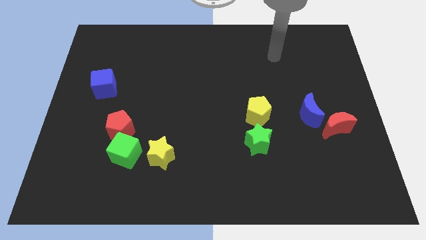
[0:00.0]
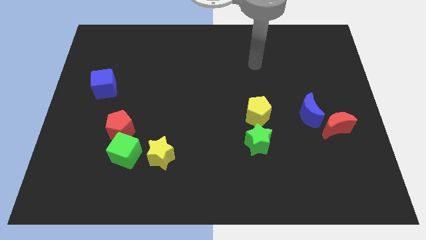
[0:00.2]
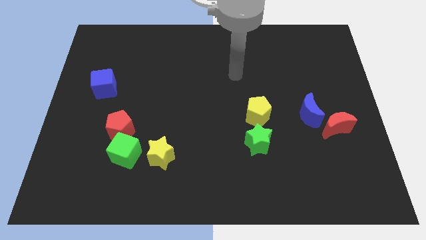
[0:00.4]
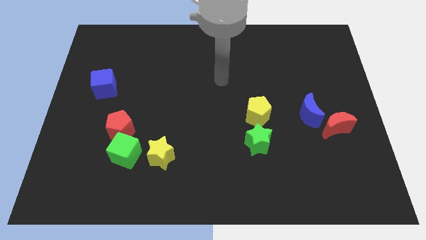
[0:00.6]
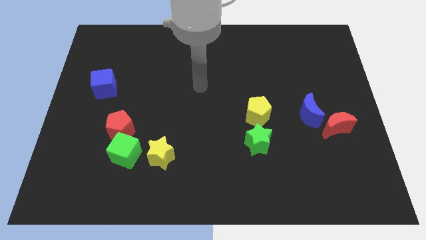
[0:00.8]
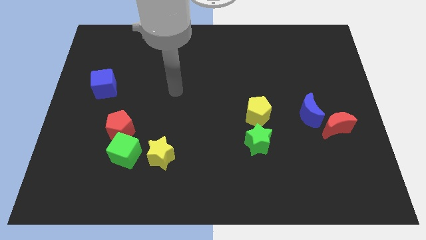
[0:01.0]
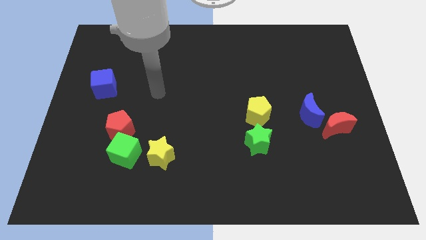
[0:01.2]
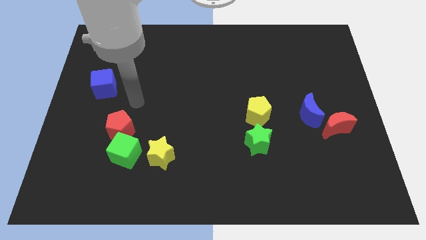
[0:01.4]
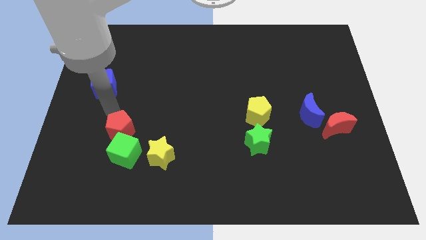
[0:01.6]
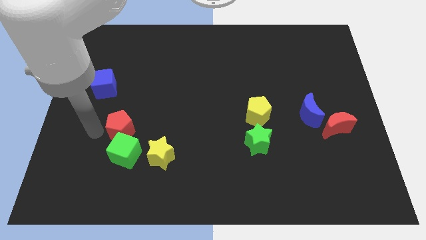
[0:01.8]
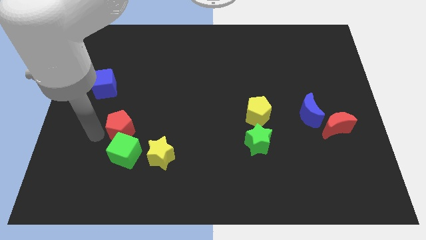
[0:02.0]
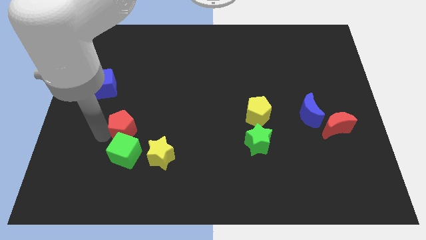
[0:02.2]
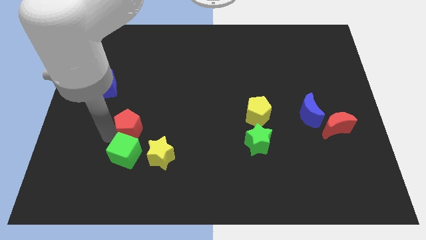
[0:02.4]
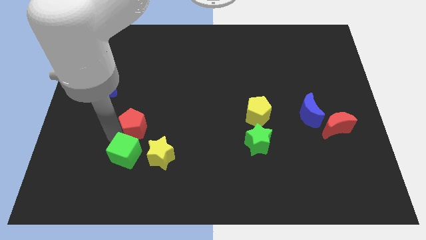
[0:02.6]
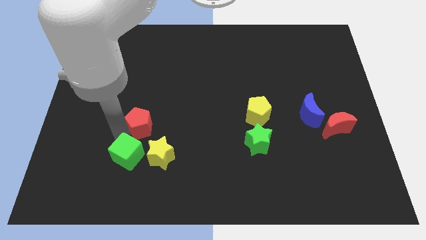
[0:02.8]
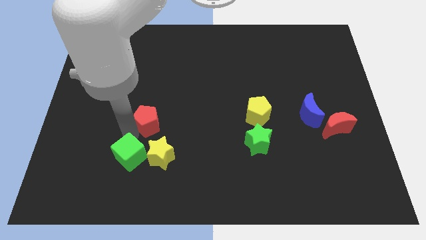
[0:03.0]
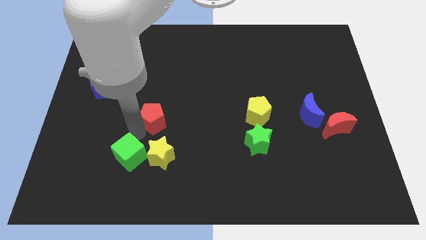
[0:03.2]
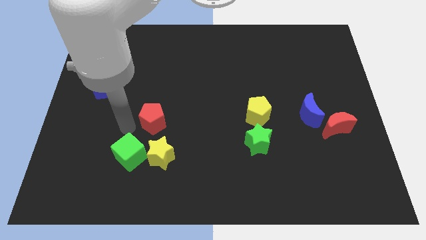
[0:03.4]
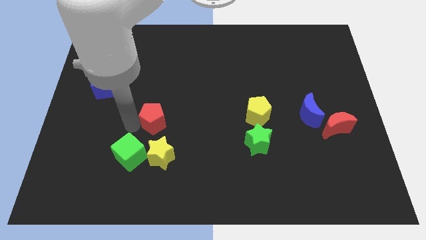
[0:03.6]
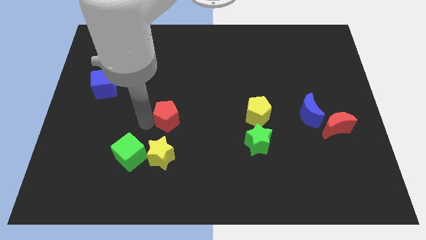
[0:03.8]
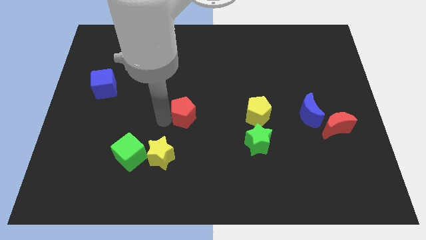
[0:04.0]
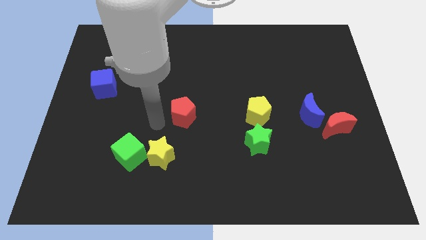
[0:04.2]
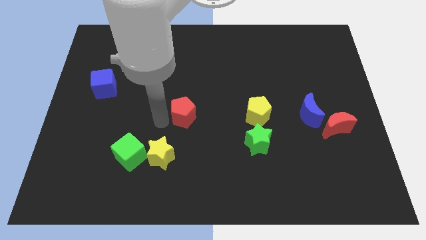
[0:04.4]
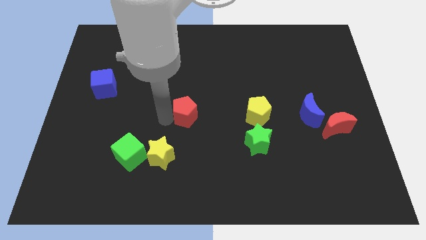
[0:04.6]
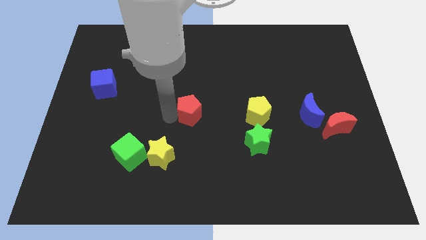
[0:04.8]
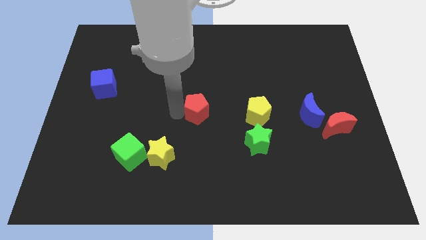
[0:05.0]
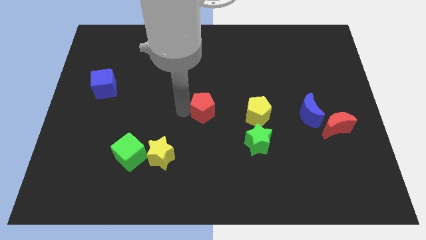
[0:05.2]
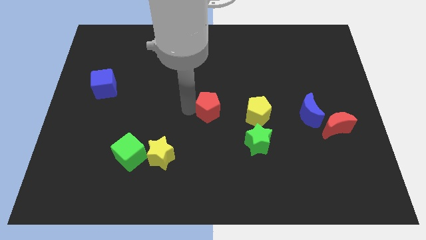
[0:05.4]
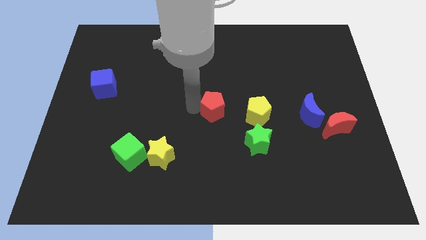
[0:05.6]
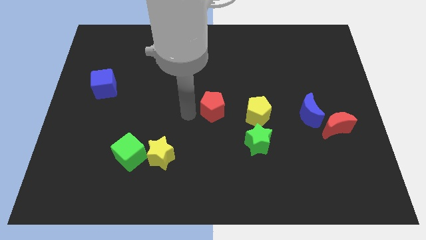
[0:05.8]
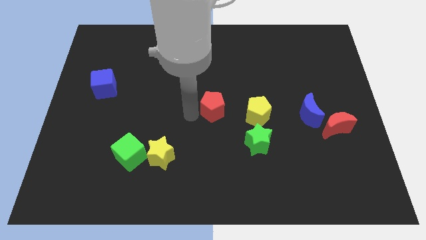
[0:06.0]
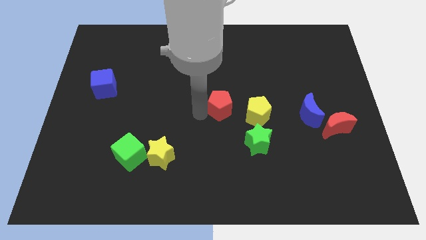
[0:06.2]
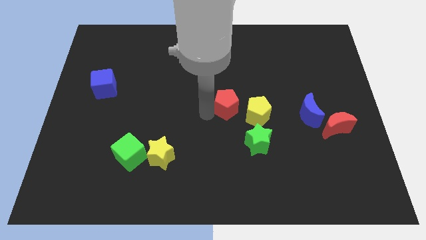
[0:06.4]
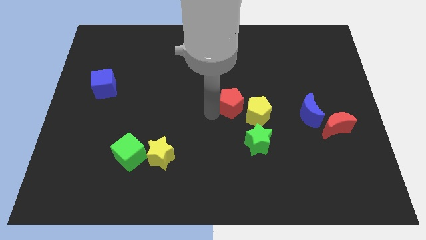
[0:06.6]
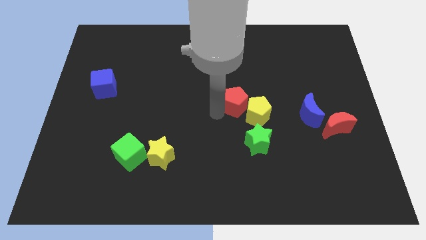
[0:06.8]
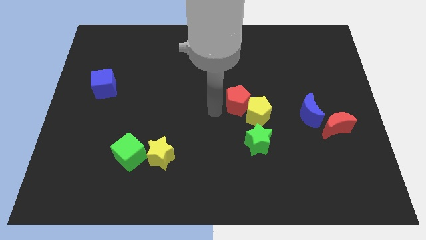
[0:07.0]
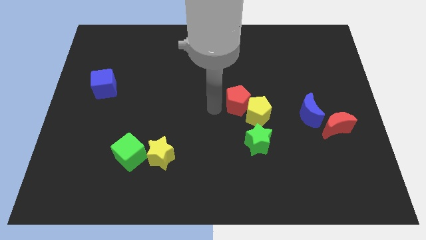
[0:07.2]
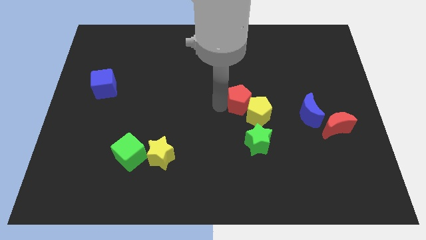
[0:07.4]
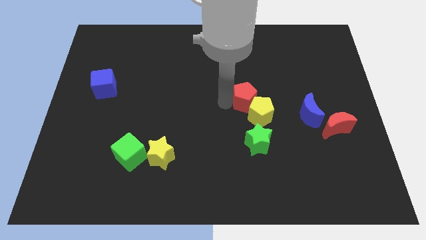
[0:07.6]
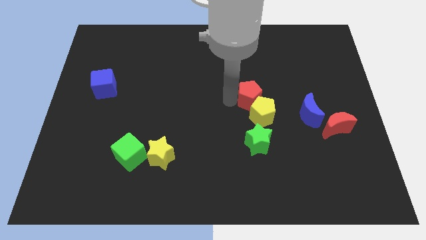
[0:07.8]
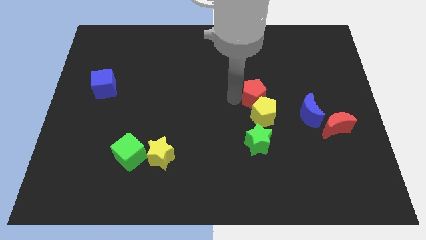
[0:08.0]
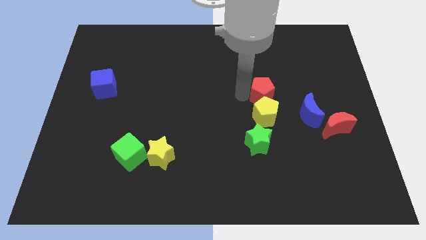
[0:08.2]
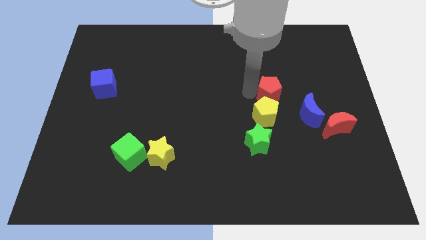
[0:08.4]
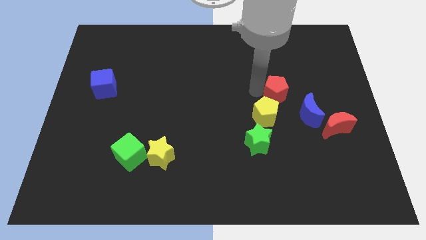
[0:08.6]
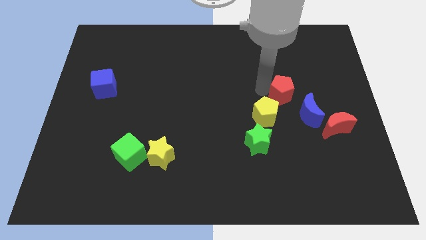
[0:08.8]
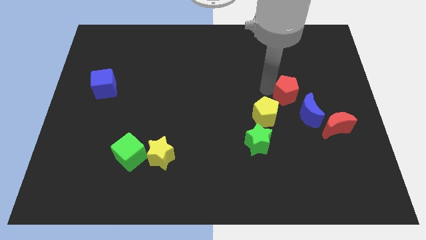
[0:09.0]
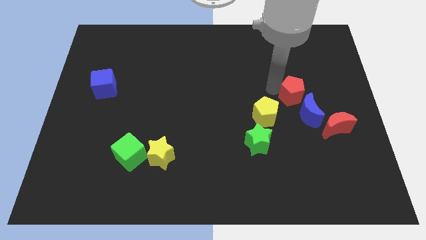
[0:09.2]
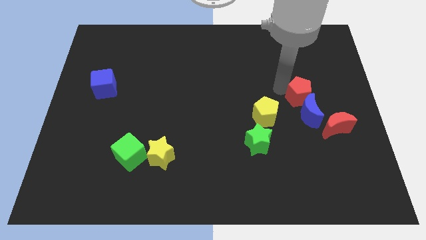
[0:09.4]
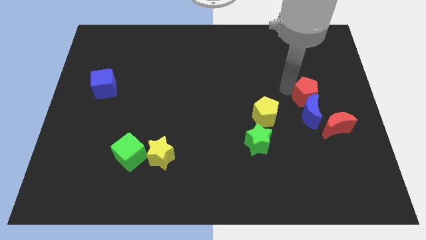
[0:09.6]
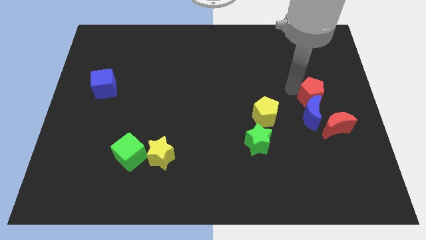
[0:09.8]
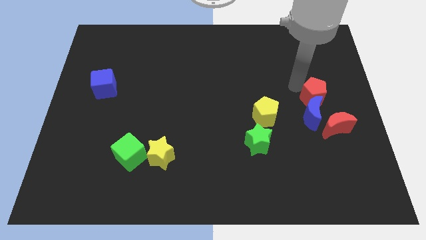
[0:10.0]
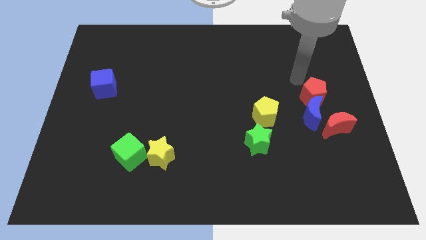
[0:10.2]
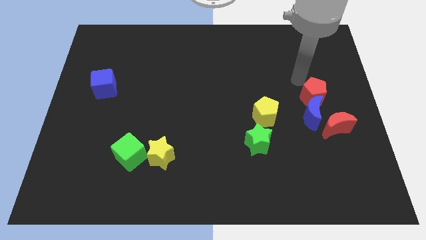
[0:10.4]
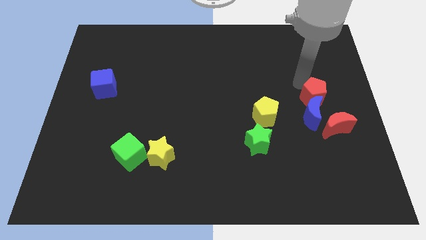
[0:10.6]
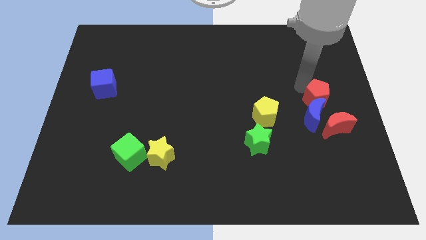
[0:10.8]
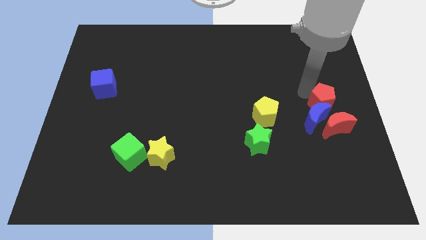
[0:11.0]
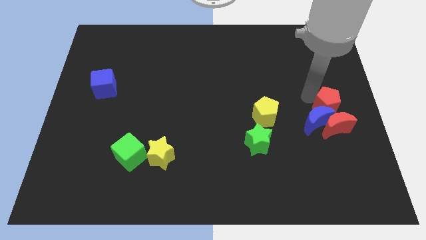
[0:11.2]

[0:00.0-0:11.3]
put the red pentagon close to the red moon

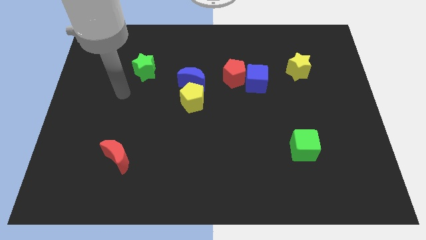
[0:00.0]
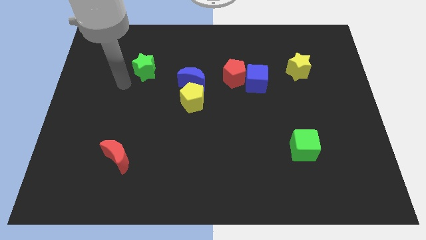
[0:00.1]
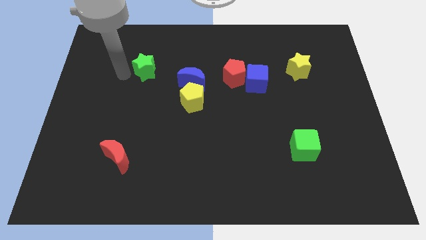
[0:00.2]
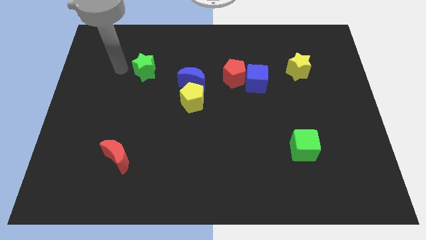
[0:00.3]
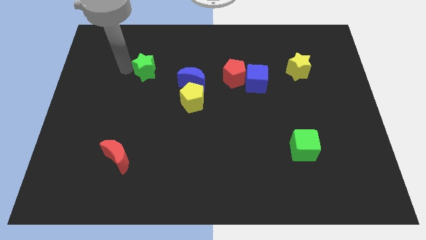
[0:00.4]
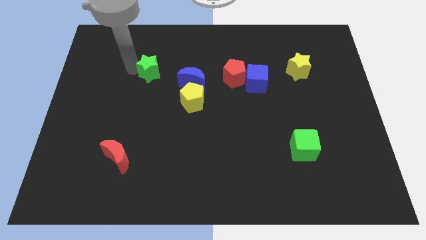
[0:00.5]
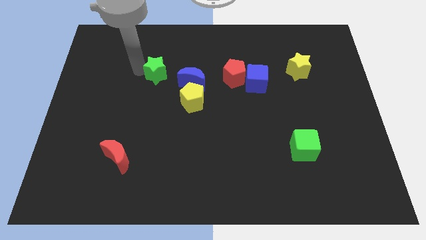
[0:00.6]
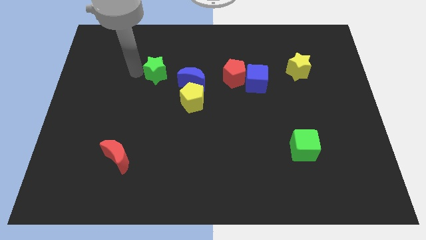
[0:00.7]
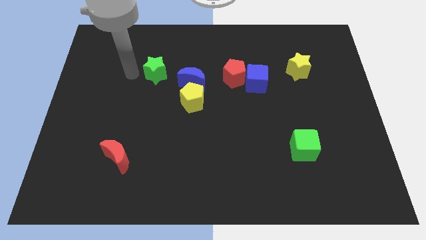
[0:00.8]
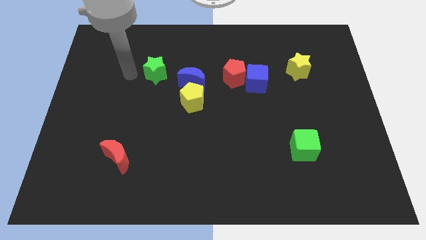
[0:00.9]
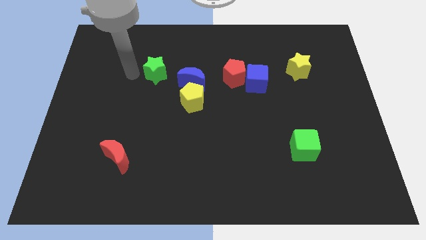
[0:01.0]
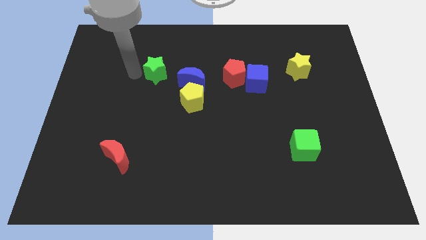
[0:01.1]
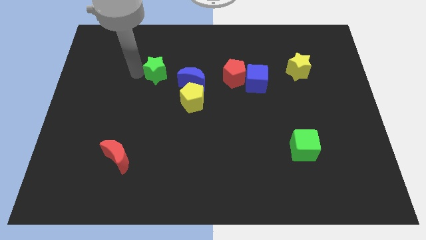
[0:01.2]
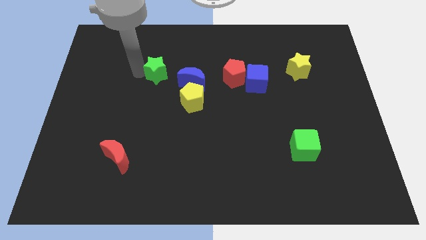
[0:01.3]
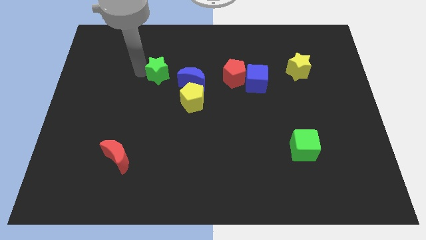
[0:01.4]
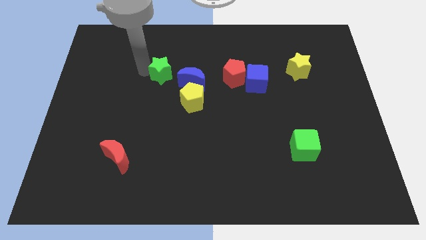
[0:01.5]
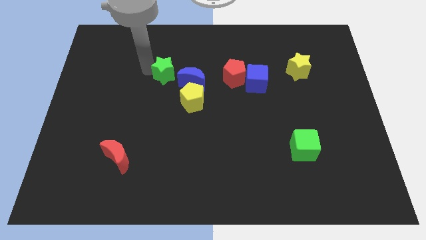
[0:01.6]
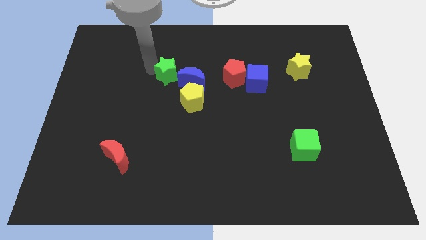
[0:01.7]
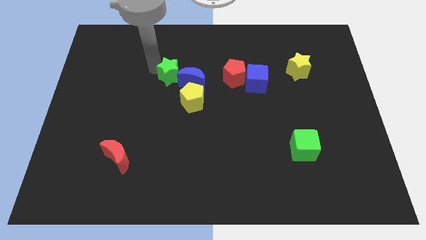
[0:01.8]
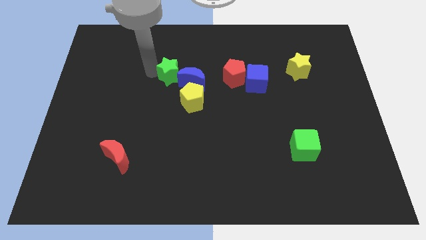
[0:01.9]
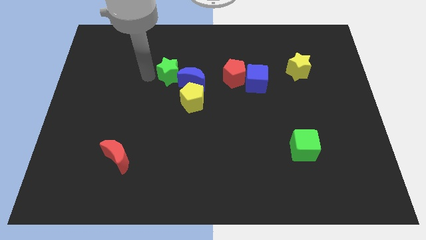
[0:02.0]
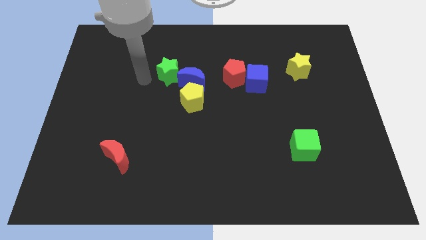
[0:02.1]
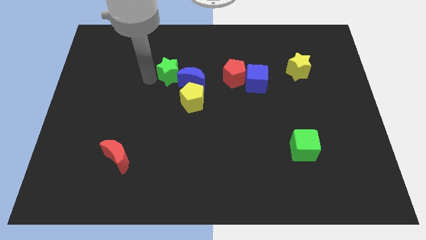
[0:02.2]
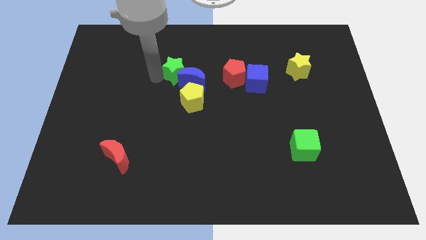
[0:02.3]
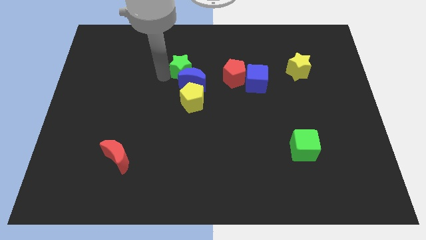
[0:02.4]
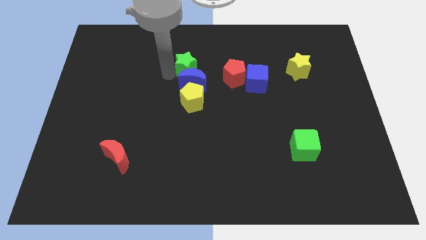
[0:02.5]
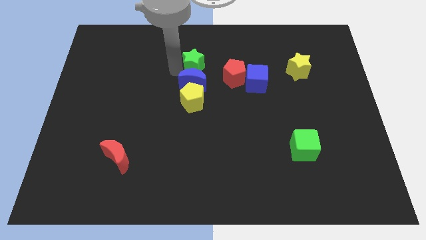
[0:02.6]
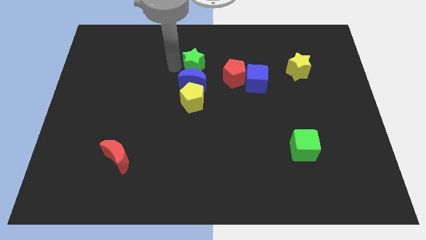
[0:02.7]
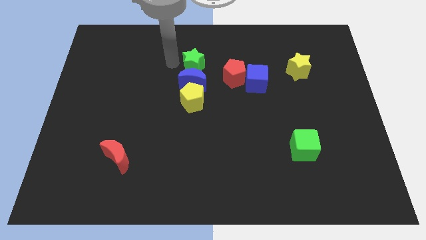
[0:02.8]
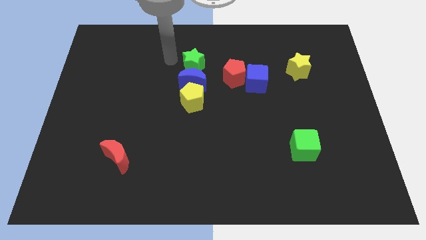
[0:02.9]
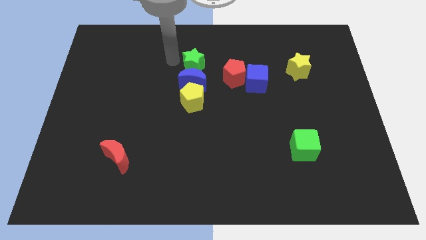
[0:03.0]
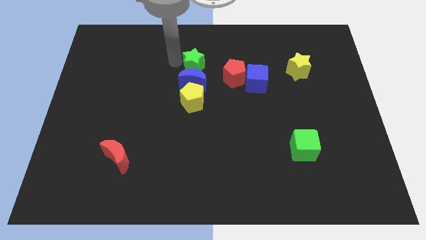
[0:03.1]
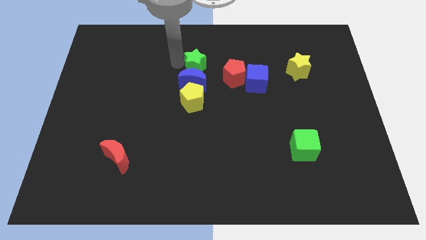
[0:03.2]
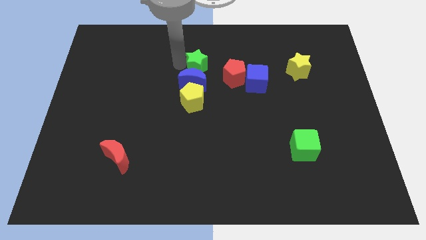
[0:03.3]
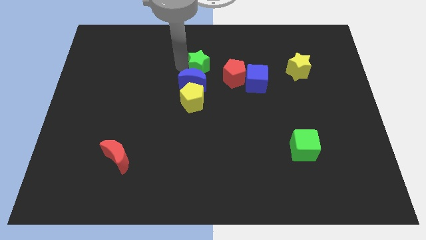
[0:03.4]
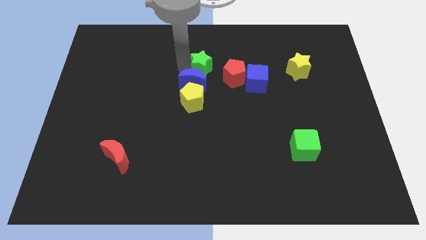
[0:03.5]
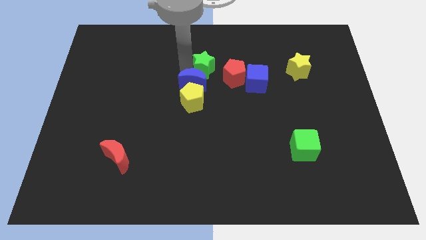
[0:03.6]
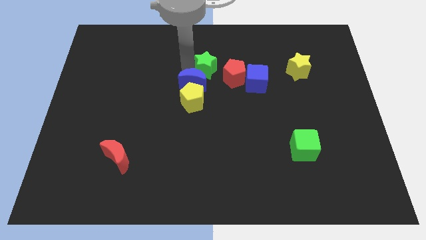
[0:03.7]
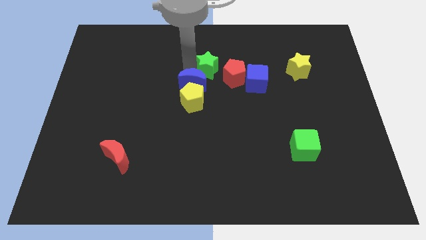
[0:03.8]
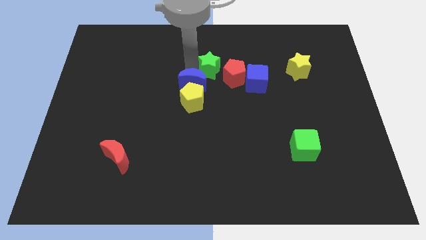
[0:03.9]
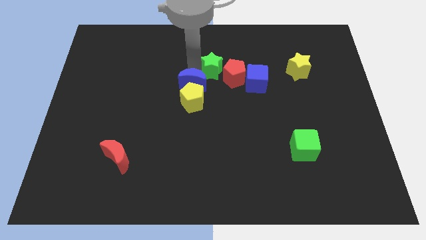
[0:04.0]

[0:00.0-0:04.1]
put the green star towards the red pentagon
